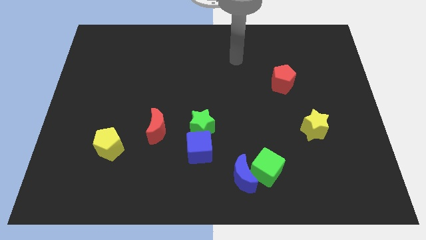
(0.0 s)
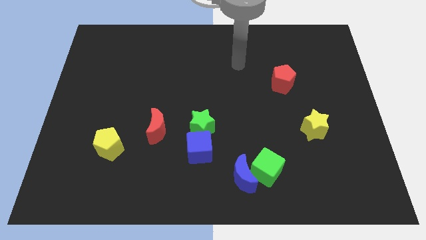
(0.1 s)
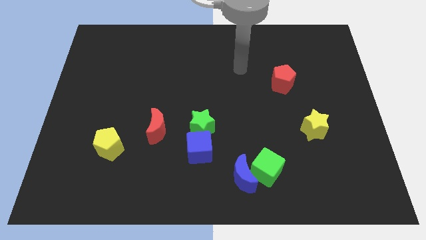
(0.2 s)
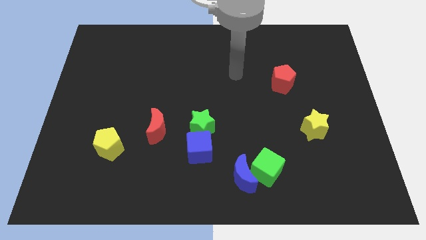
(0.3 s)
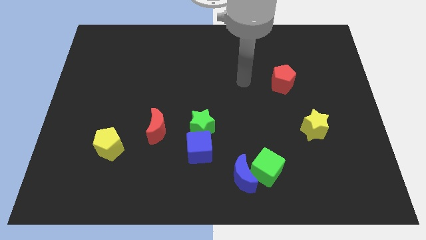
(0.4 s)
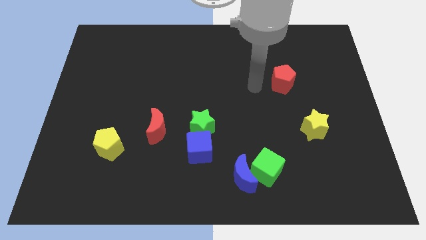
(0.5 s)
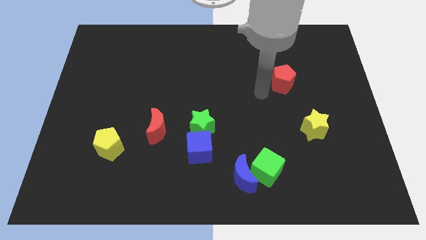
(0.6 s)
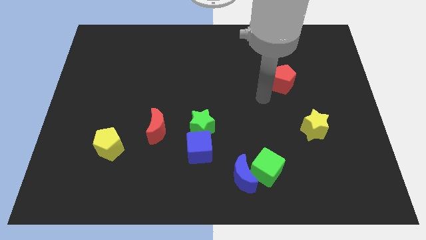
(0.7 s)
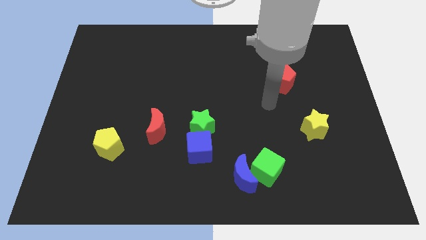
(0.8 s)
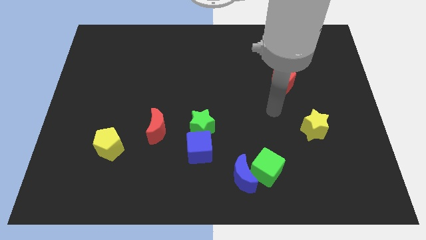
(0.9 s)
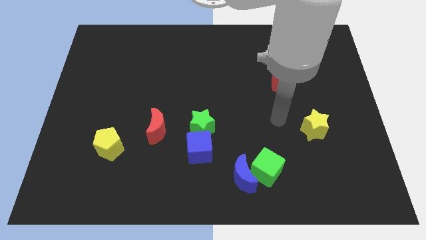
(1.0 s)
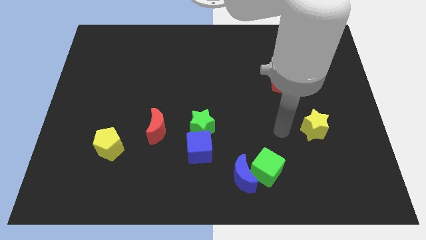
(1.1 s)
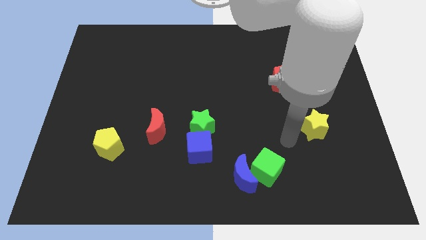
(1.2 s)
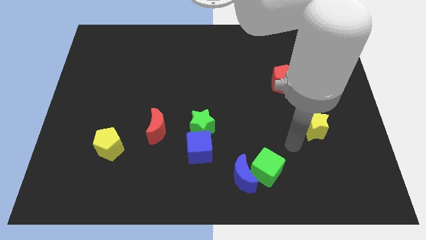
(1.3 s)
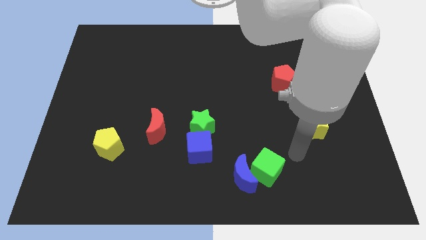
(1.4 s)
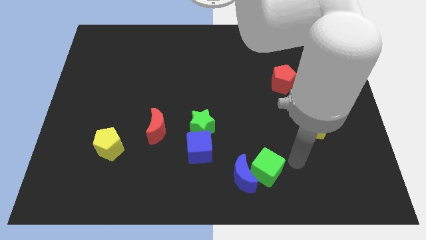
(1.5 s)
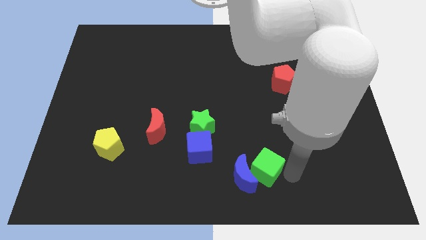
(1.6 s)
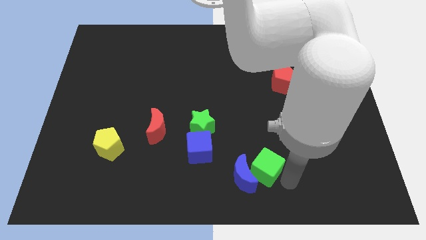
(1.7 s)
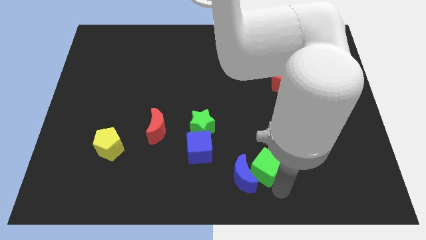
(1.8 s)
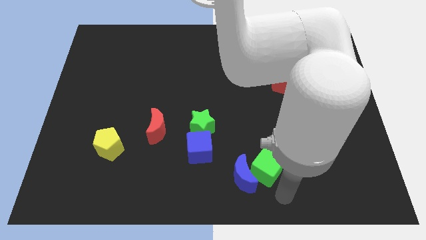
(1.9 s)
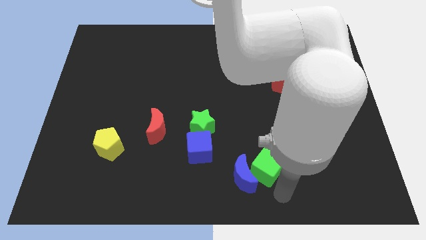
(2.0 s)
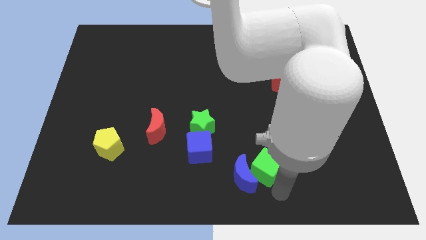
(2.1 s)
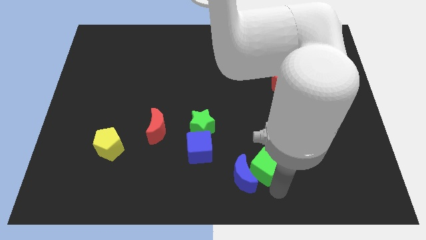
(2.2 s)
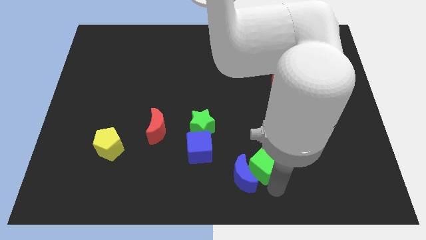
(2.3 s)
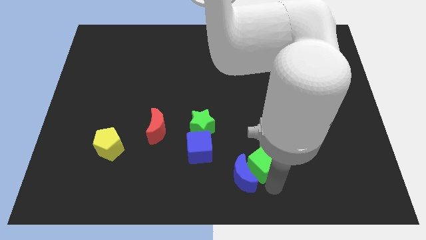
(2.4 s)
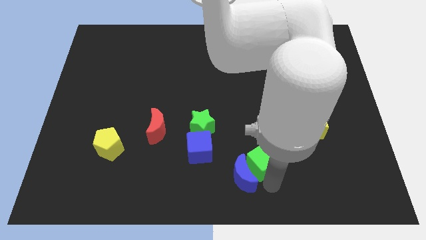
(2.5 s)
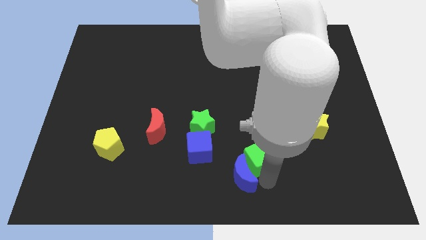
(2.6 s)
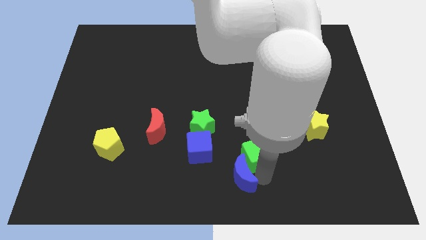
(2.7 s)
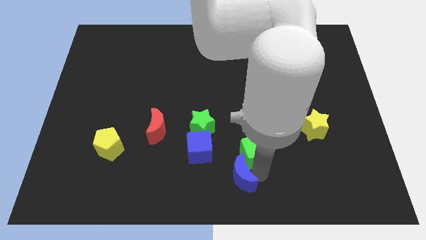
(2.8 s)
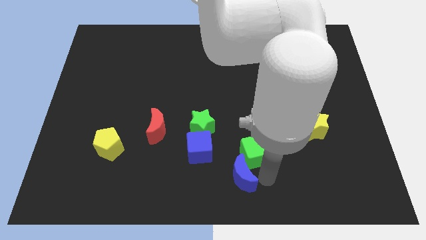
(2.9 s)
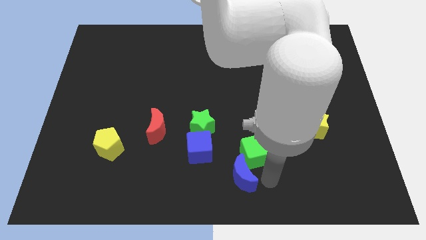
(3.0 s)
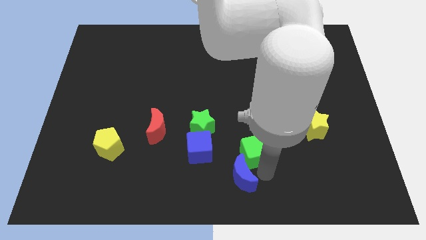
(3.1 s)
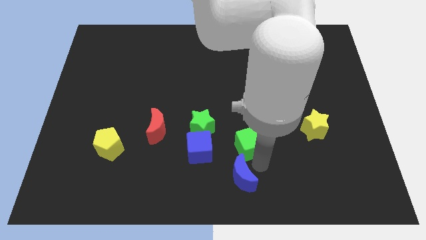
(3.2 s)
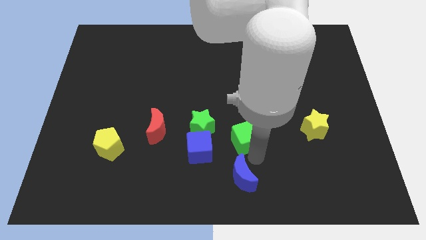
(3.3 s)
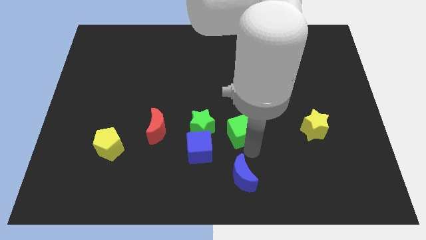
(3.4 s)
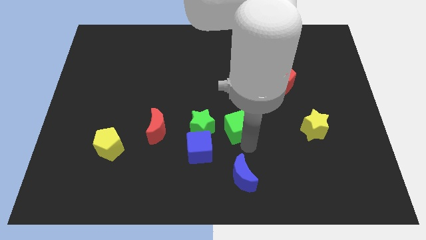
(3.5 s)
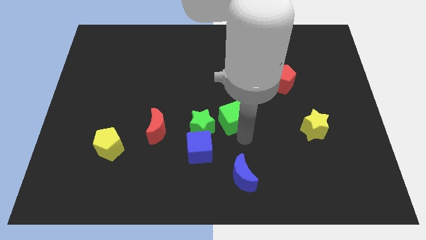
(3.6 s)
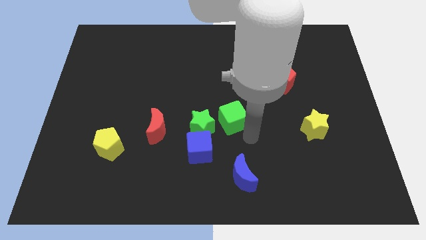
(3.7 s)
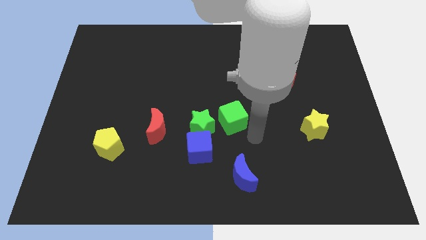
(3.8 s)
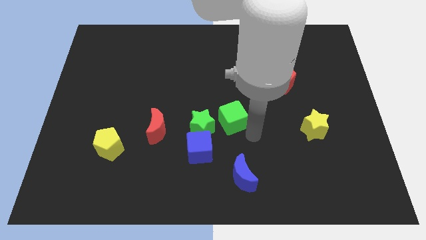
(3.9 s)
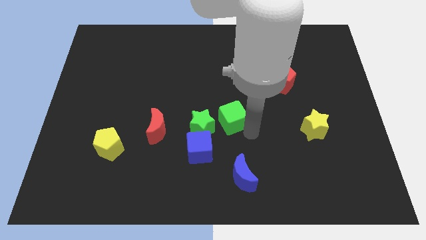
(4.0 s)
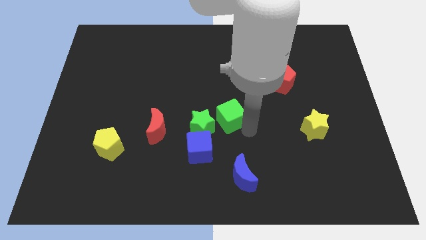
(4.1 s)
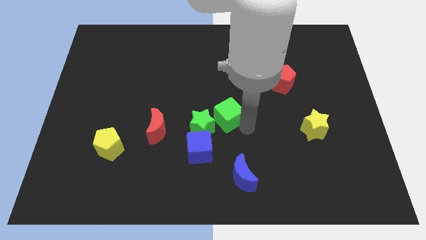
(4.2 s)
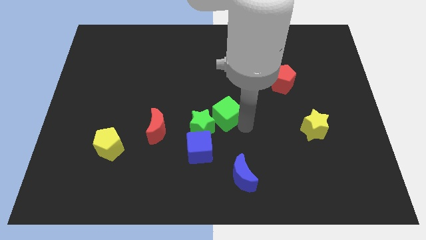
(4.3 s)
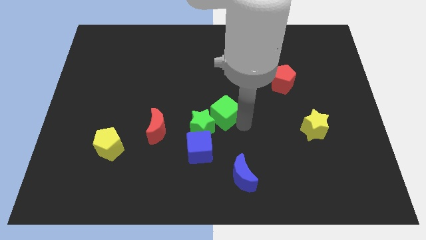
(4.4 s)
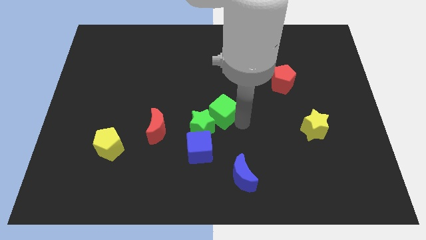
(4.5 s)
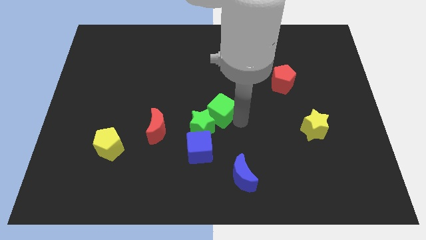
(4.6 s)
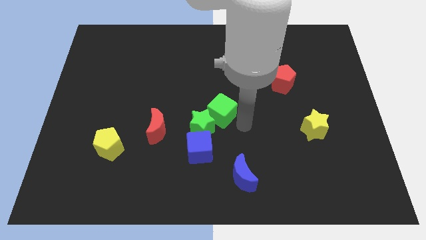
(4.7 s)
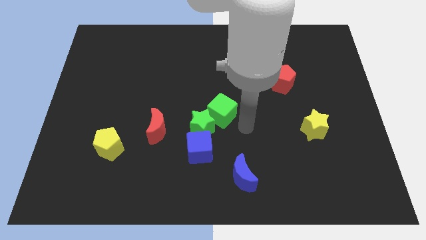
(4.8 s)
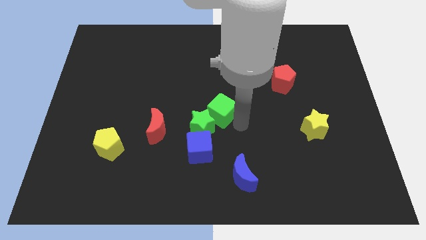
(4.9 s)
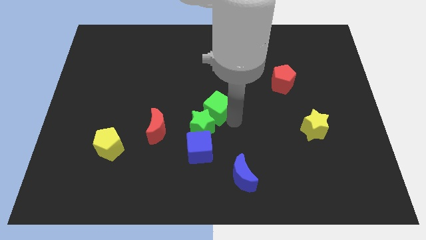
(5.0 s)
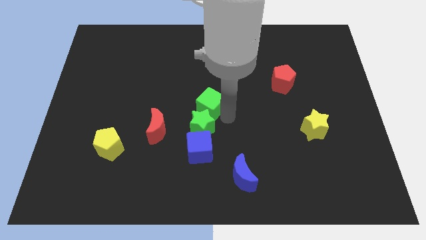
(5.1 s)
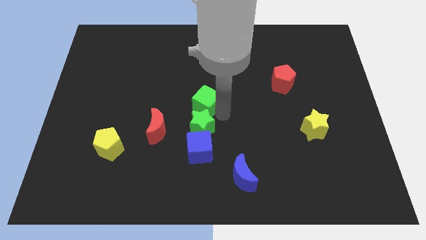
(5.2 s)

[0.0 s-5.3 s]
push the green cube upwards and left diagonally

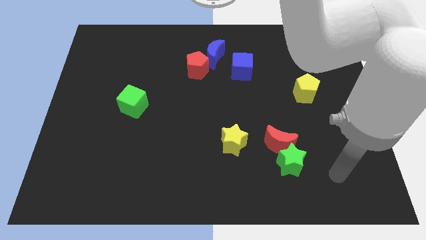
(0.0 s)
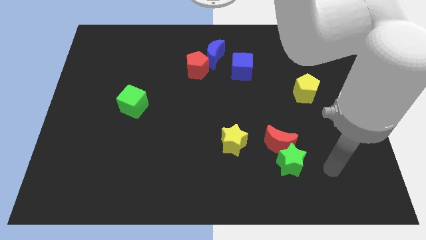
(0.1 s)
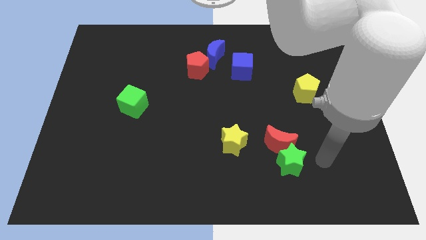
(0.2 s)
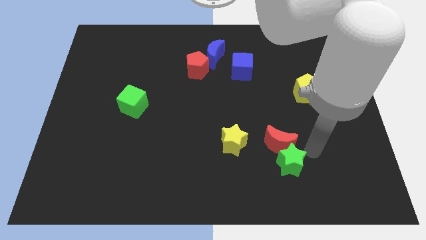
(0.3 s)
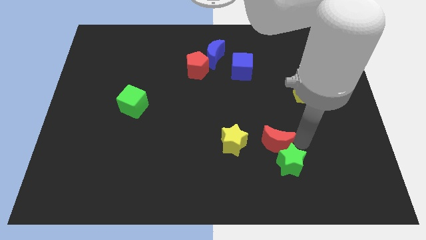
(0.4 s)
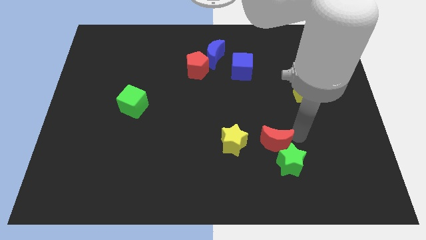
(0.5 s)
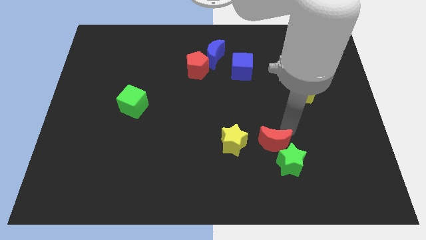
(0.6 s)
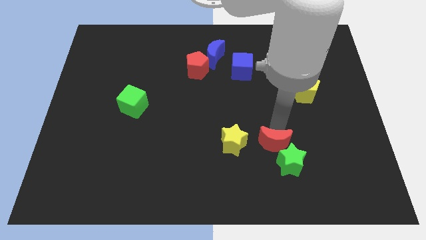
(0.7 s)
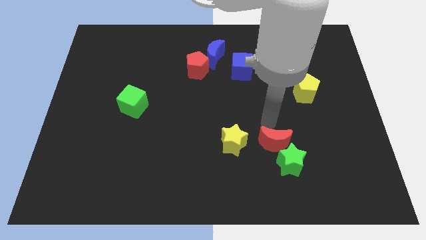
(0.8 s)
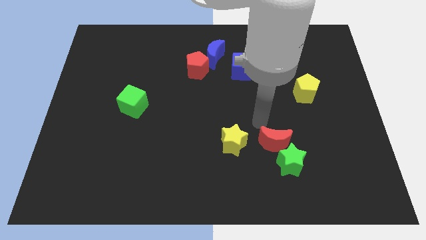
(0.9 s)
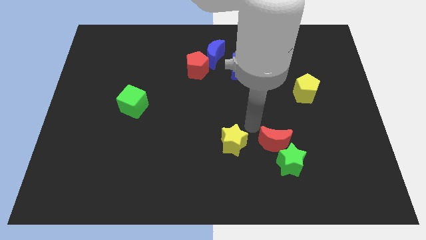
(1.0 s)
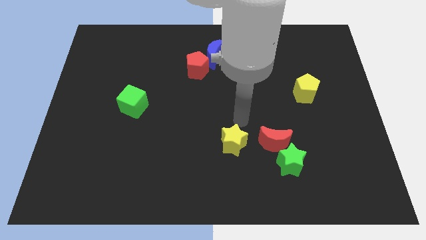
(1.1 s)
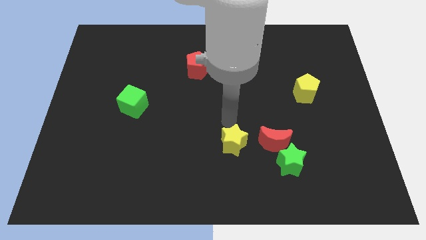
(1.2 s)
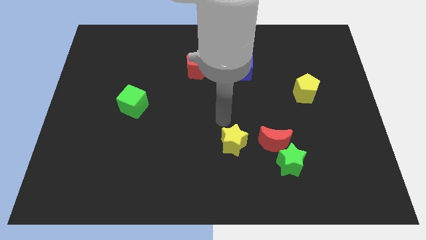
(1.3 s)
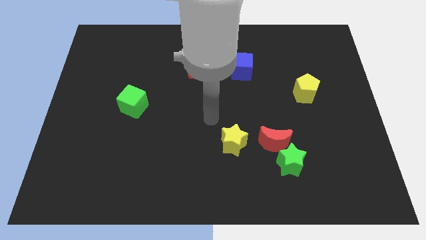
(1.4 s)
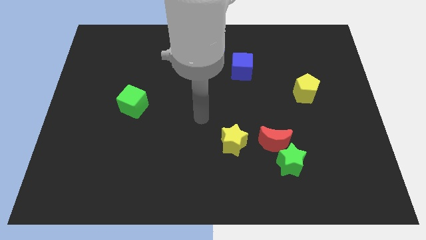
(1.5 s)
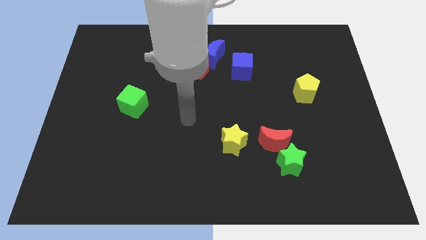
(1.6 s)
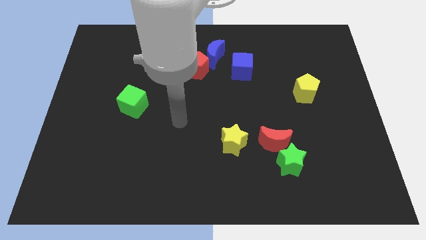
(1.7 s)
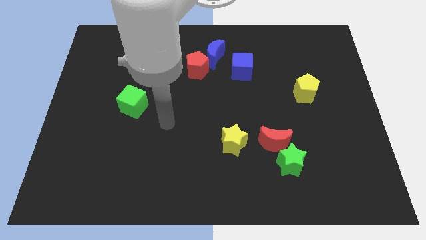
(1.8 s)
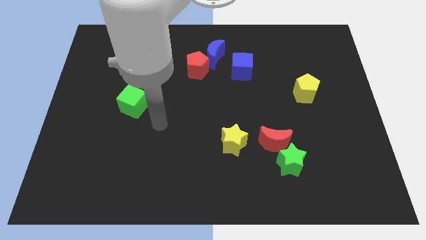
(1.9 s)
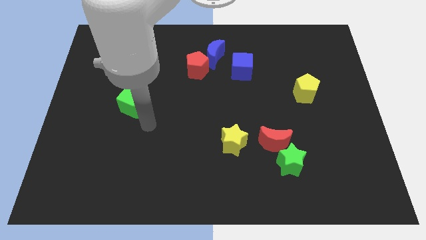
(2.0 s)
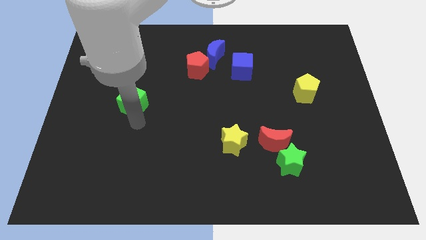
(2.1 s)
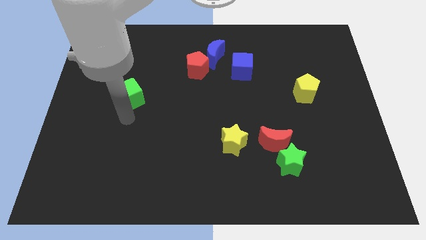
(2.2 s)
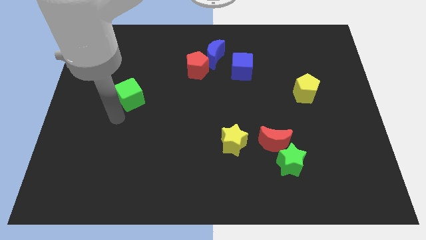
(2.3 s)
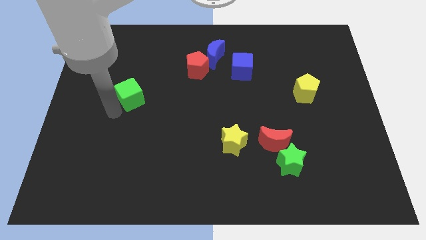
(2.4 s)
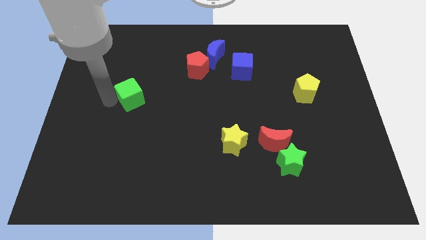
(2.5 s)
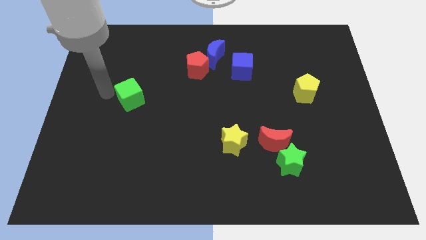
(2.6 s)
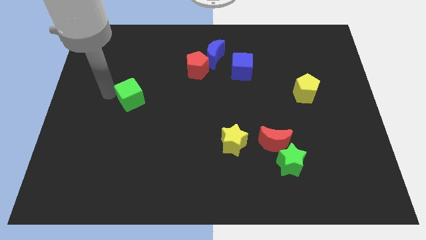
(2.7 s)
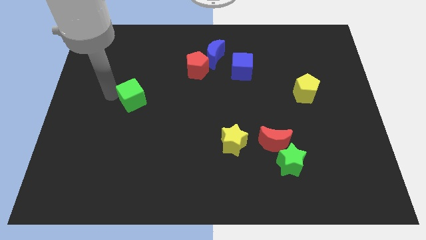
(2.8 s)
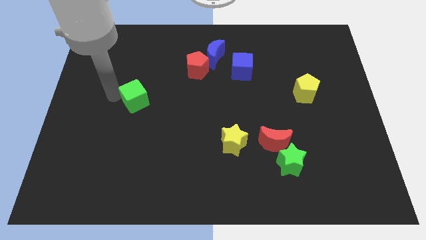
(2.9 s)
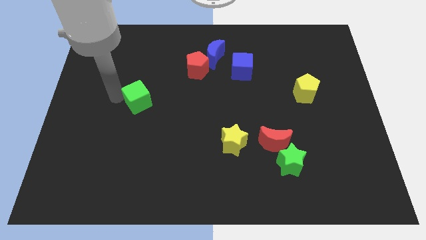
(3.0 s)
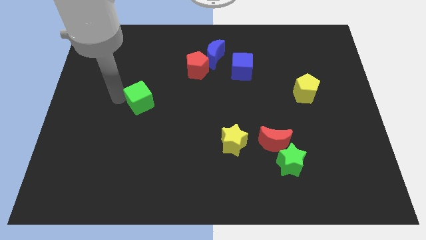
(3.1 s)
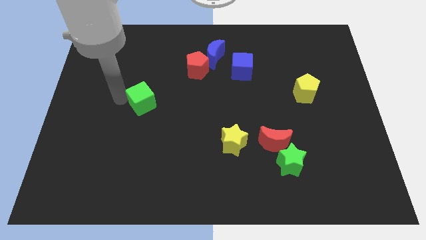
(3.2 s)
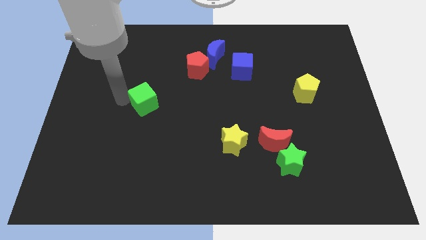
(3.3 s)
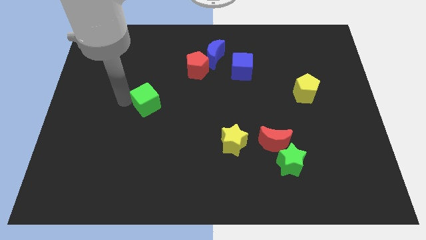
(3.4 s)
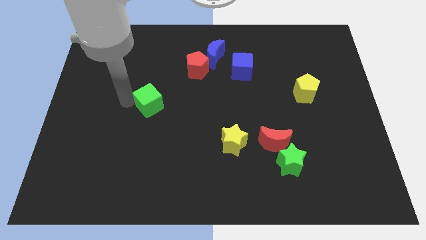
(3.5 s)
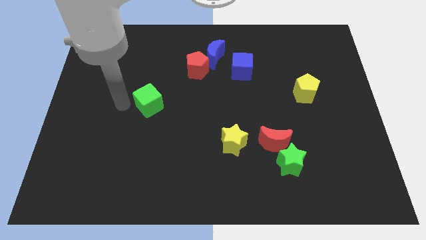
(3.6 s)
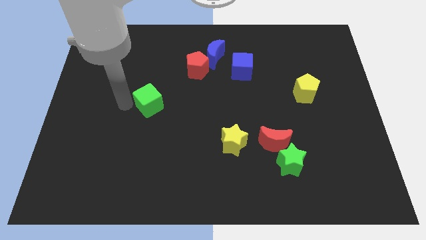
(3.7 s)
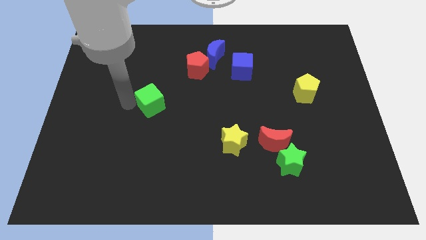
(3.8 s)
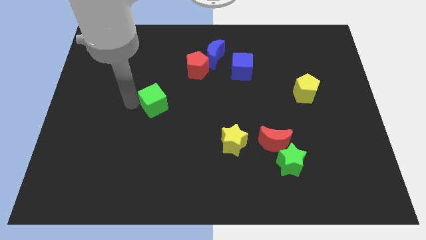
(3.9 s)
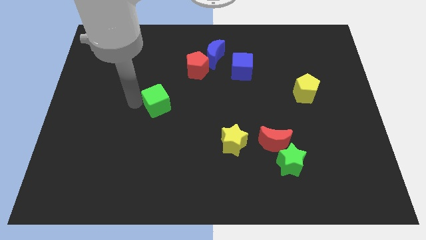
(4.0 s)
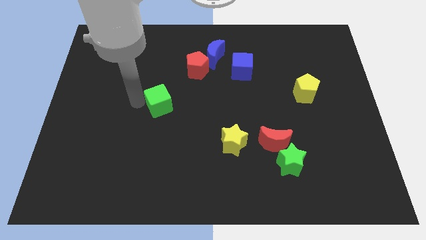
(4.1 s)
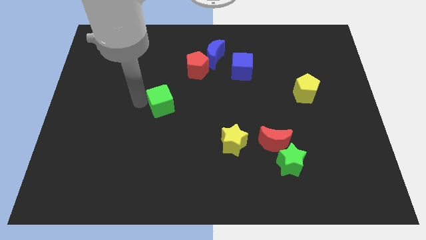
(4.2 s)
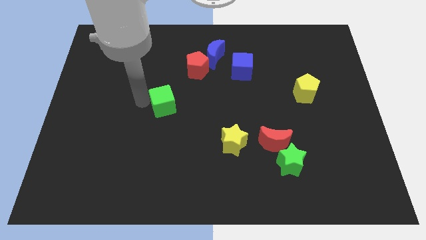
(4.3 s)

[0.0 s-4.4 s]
push the green cube to the right slightly
